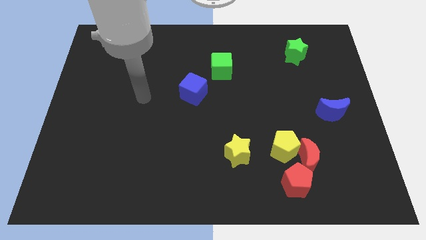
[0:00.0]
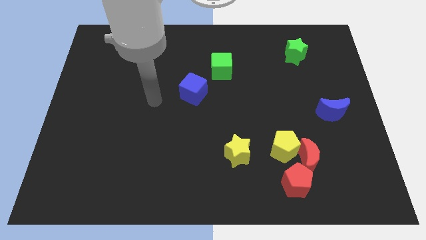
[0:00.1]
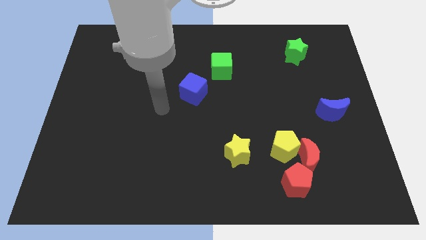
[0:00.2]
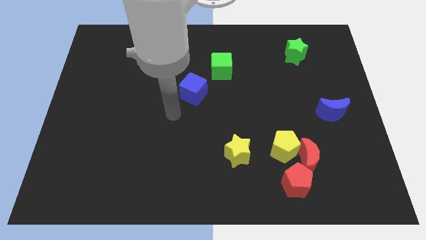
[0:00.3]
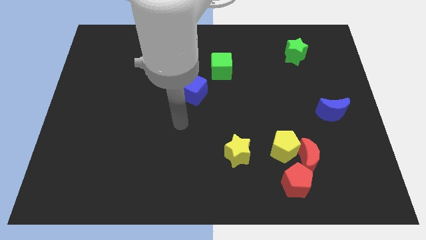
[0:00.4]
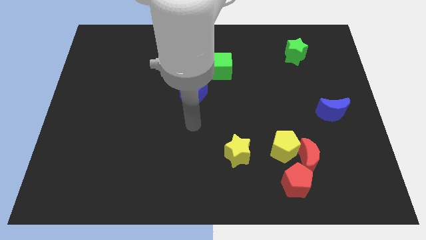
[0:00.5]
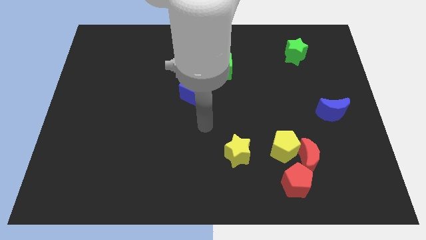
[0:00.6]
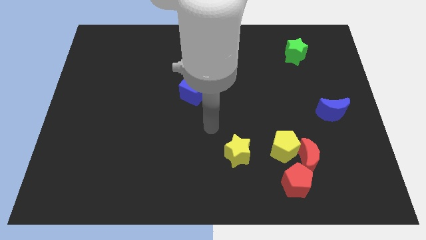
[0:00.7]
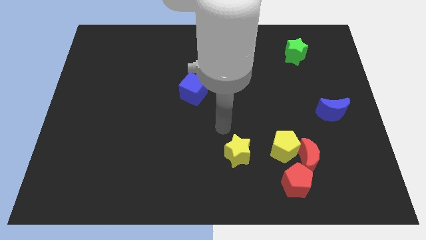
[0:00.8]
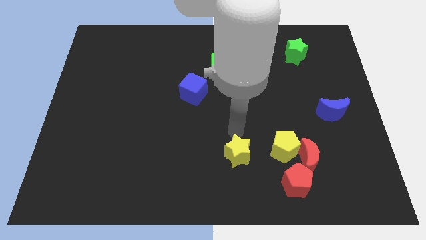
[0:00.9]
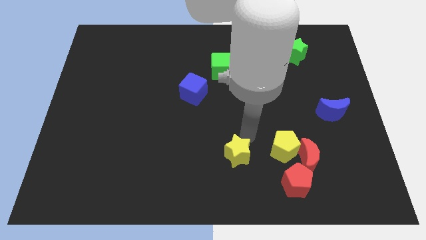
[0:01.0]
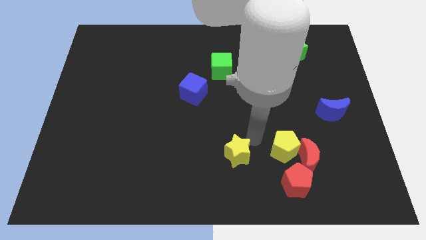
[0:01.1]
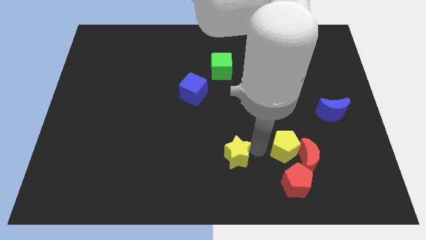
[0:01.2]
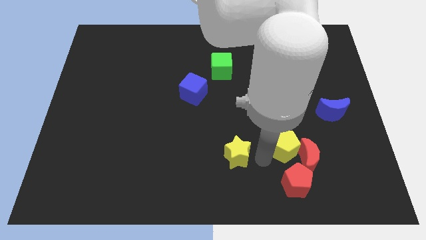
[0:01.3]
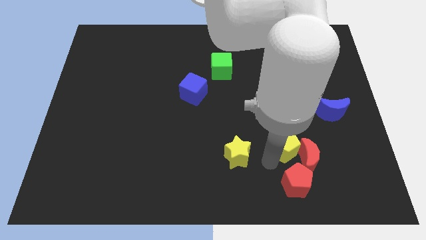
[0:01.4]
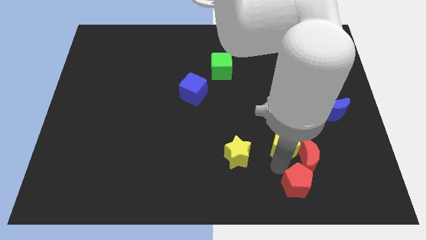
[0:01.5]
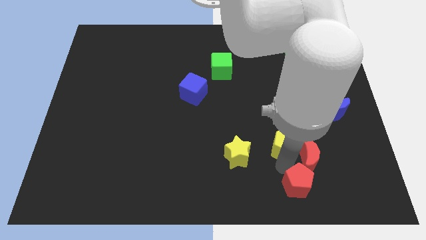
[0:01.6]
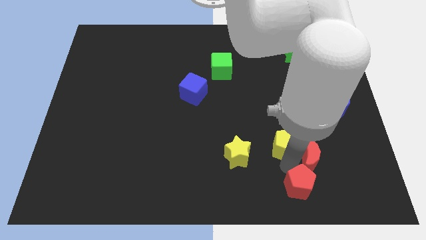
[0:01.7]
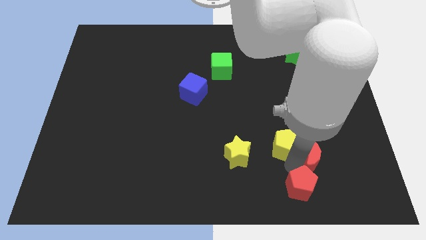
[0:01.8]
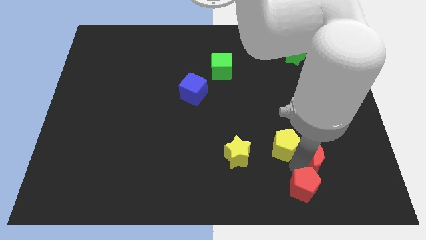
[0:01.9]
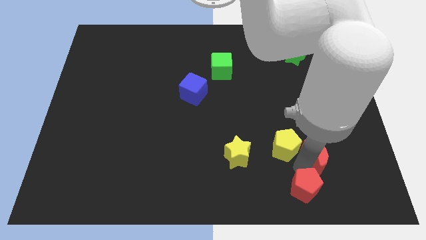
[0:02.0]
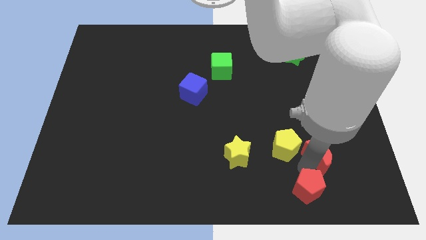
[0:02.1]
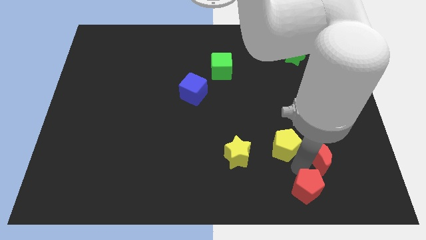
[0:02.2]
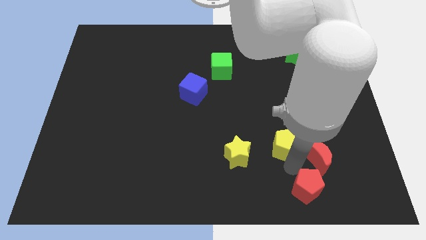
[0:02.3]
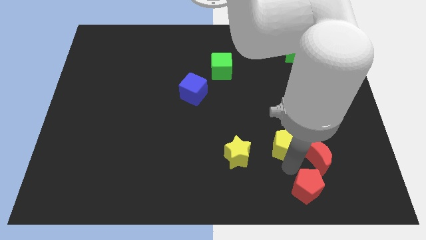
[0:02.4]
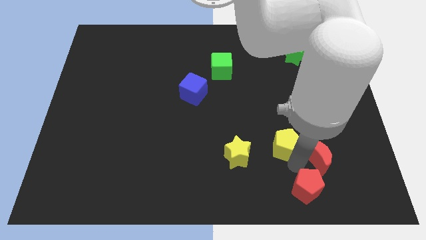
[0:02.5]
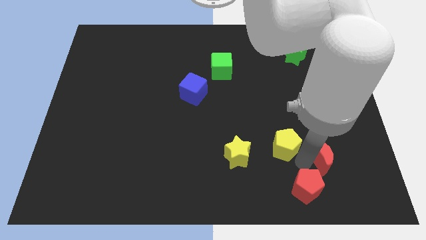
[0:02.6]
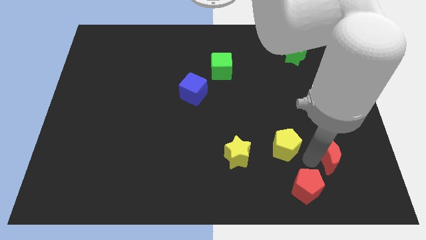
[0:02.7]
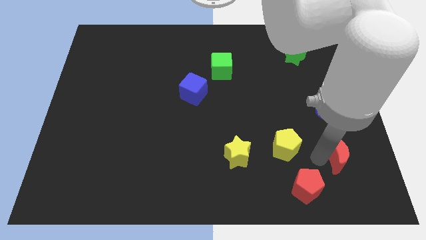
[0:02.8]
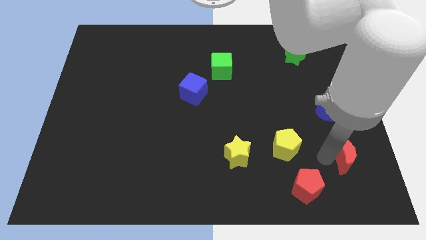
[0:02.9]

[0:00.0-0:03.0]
separate the red moon from the yellow pentagon and red pentagon

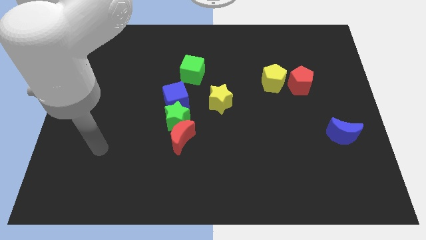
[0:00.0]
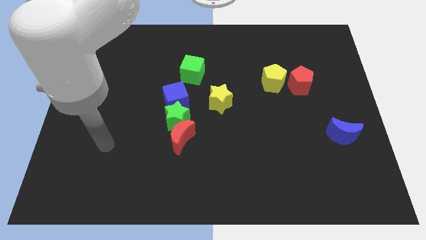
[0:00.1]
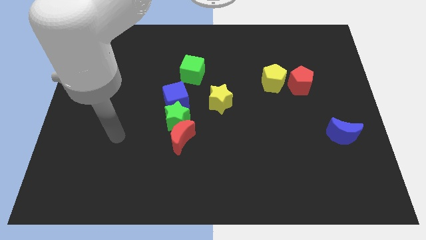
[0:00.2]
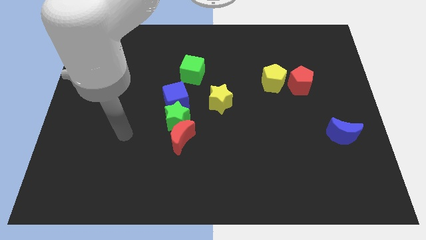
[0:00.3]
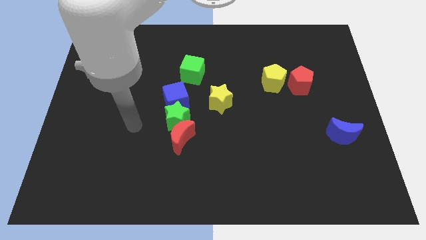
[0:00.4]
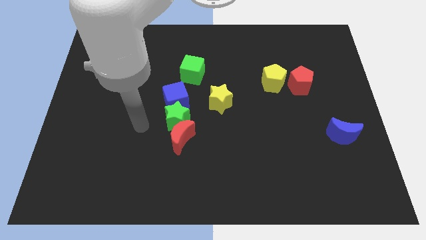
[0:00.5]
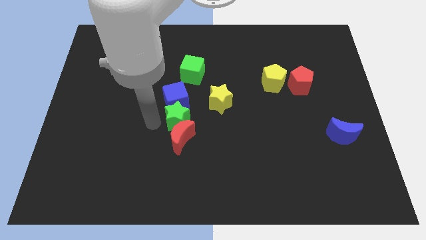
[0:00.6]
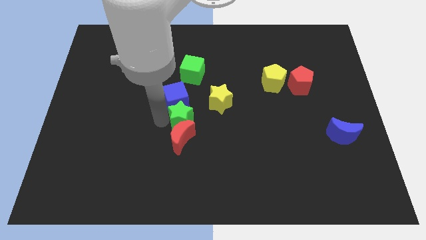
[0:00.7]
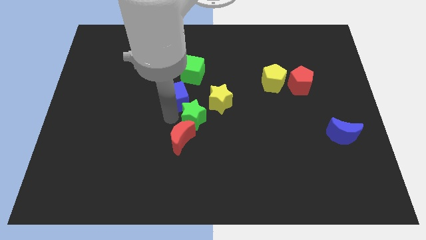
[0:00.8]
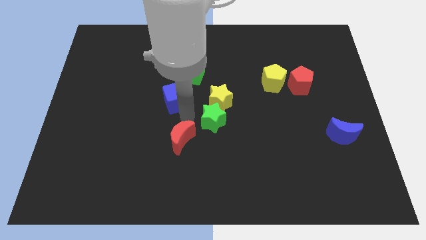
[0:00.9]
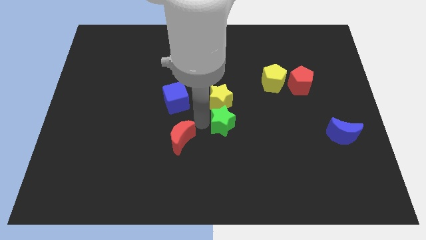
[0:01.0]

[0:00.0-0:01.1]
separate the red moon from the green star

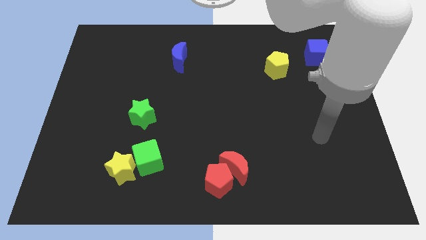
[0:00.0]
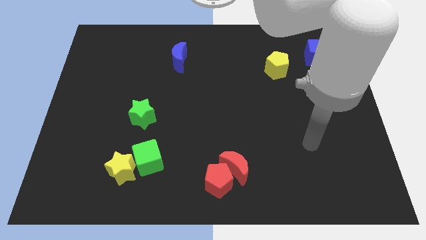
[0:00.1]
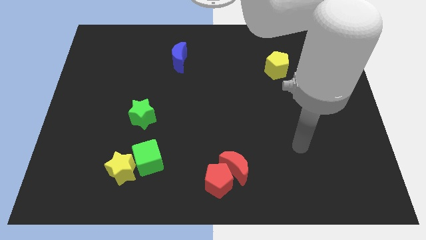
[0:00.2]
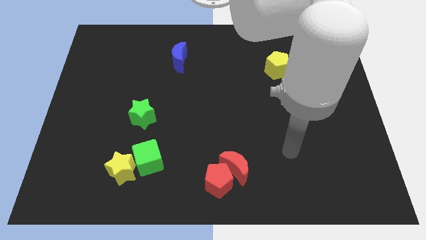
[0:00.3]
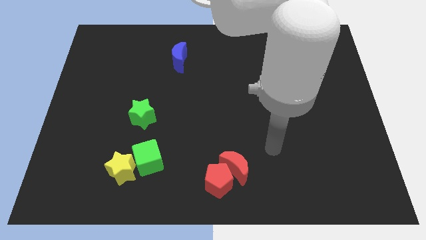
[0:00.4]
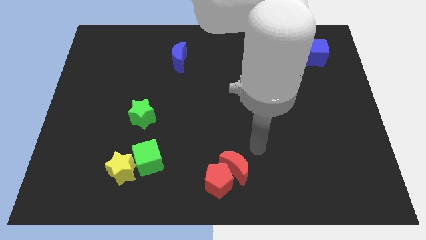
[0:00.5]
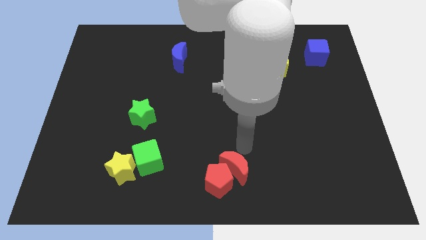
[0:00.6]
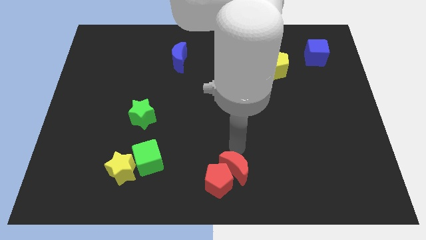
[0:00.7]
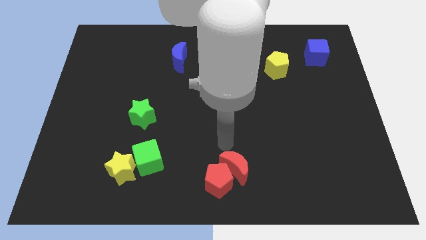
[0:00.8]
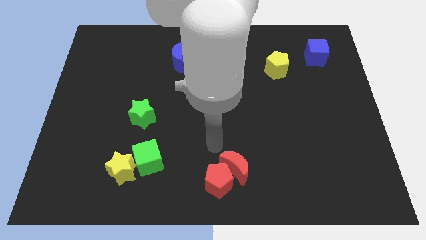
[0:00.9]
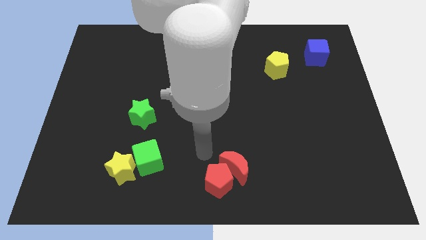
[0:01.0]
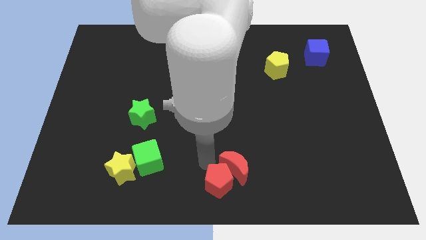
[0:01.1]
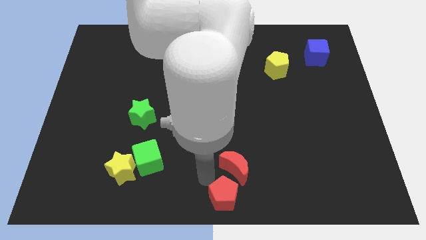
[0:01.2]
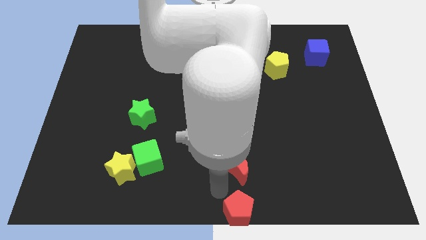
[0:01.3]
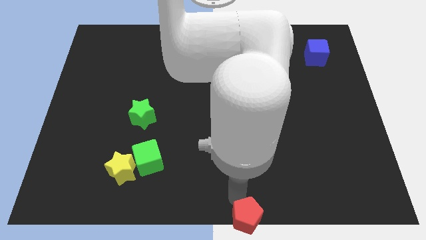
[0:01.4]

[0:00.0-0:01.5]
pull the red moon apart from the red pentagon

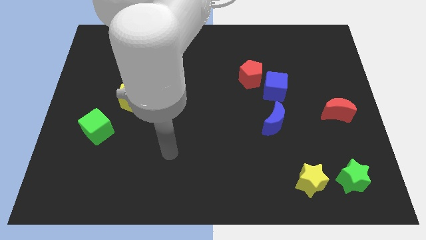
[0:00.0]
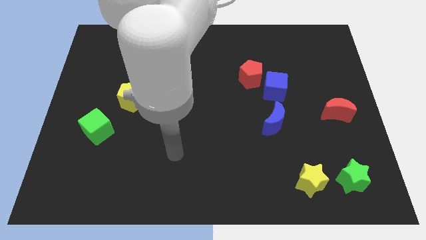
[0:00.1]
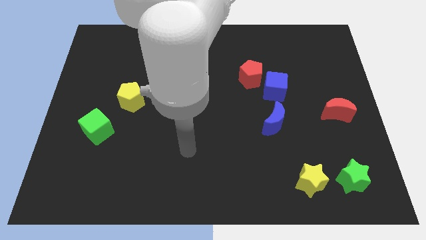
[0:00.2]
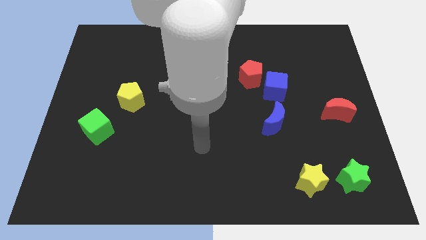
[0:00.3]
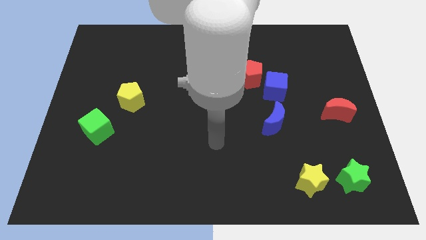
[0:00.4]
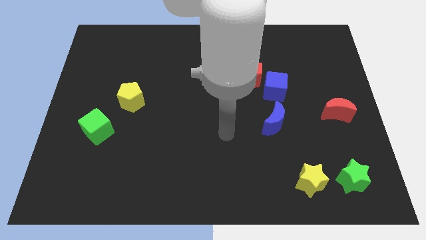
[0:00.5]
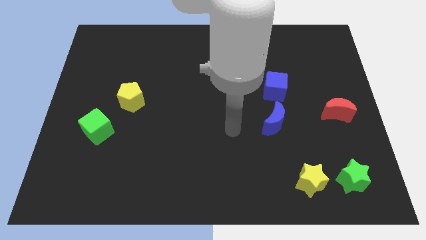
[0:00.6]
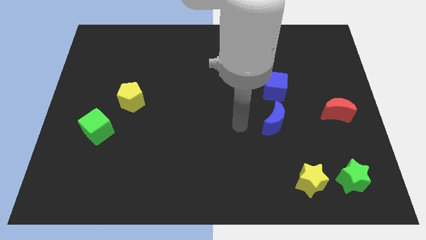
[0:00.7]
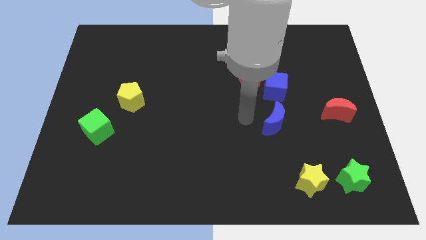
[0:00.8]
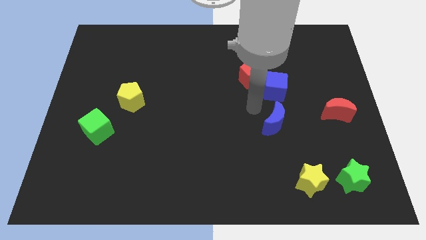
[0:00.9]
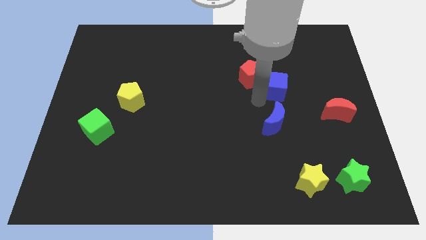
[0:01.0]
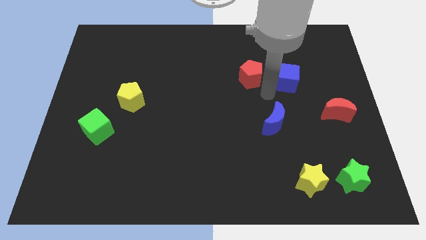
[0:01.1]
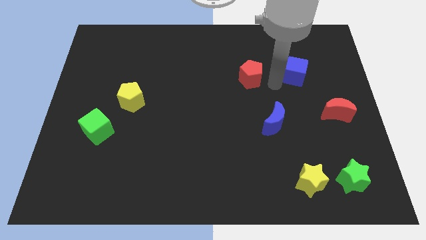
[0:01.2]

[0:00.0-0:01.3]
pull the red pentagon apart from the blue cube

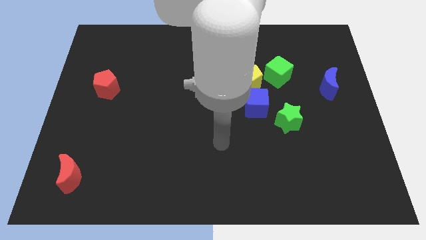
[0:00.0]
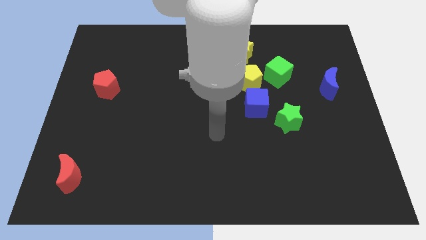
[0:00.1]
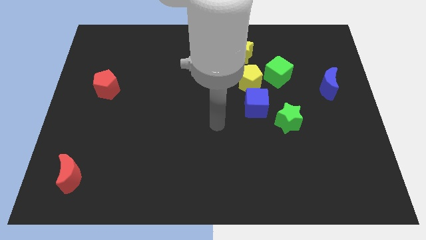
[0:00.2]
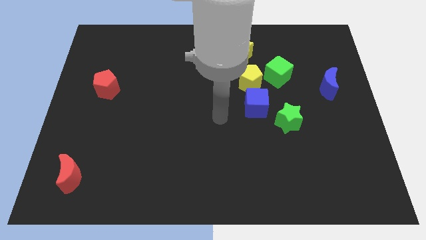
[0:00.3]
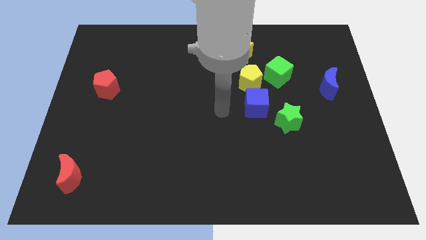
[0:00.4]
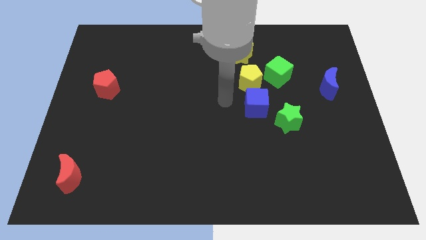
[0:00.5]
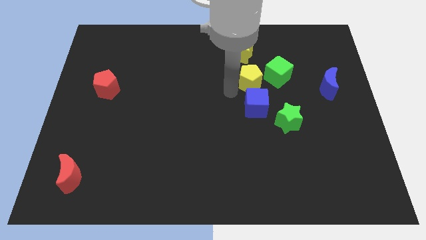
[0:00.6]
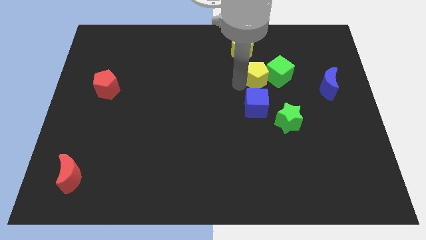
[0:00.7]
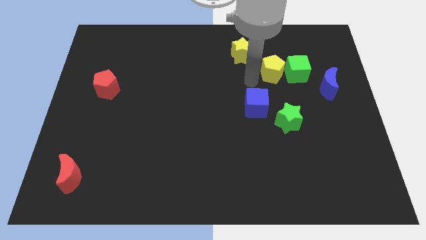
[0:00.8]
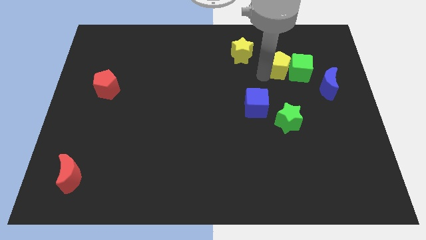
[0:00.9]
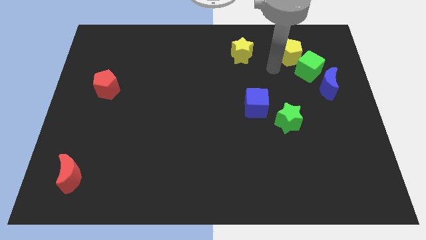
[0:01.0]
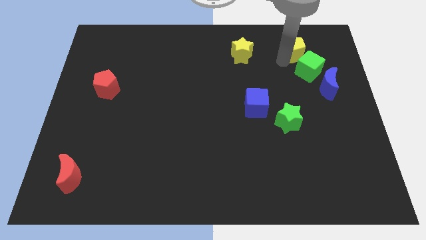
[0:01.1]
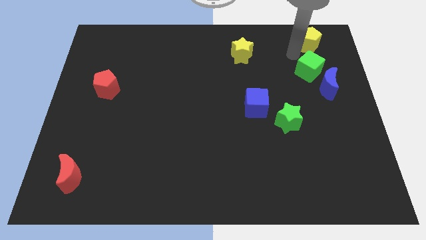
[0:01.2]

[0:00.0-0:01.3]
move the green cube away from the yellow pentagon

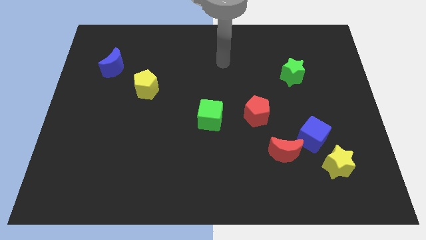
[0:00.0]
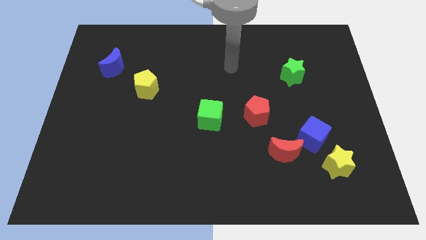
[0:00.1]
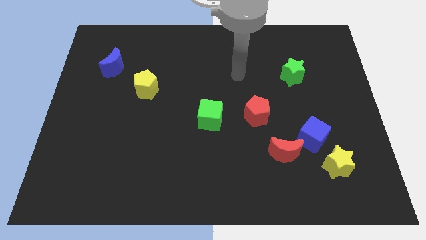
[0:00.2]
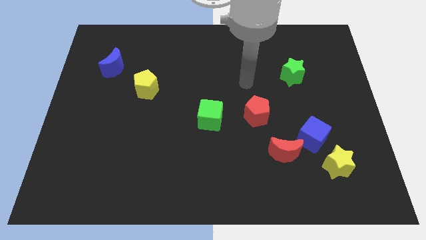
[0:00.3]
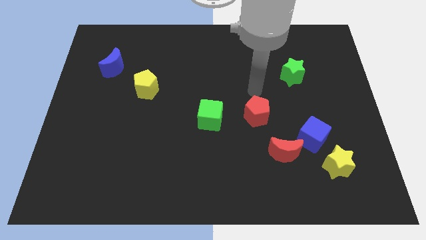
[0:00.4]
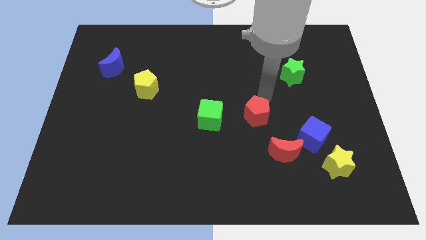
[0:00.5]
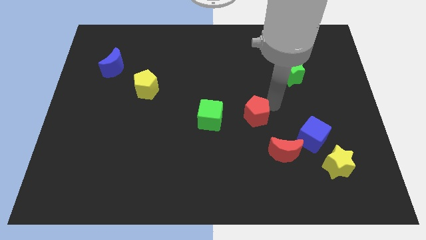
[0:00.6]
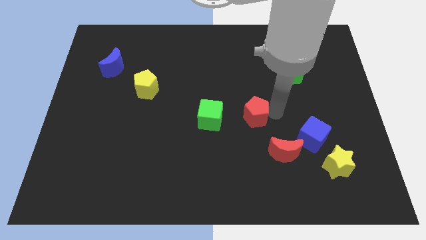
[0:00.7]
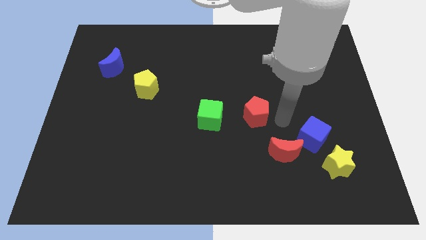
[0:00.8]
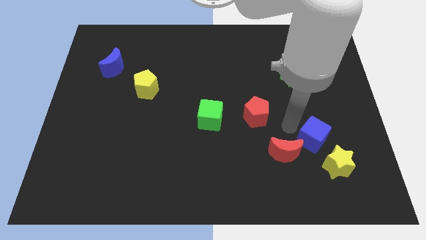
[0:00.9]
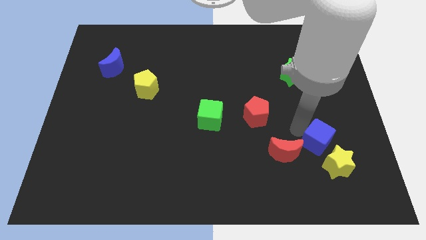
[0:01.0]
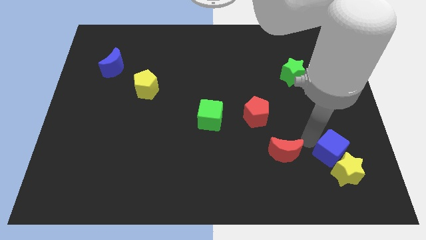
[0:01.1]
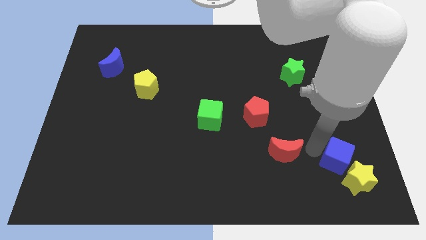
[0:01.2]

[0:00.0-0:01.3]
separate the red moon from the blue cube
